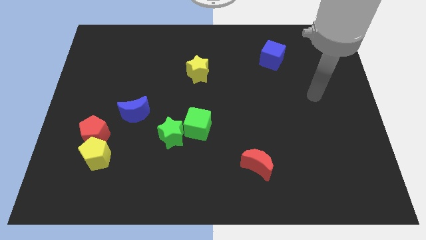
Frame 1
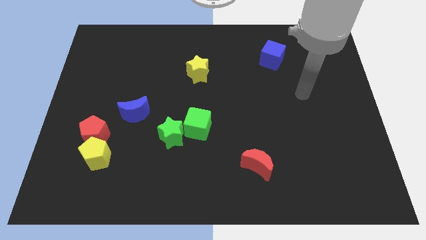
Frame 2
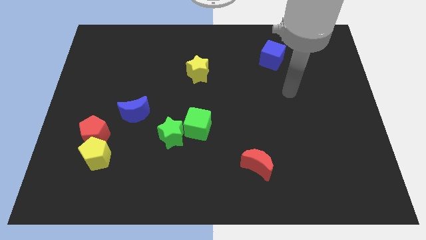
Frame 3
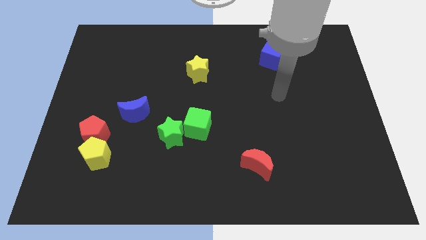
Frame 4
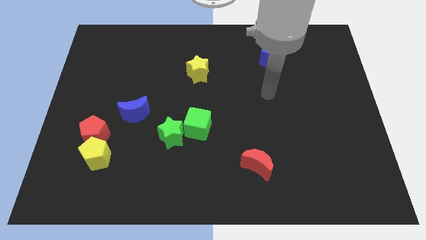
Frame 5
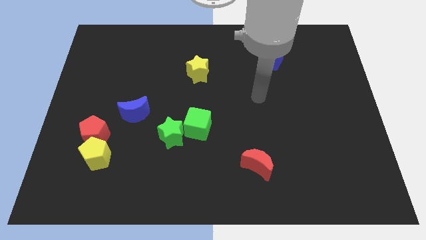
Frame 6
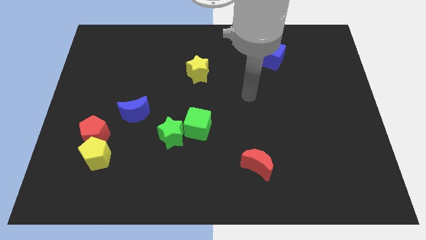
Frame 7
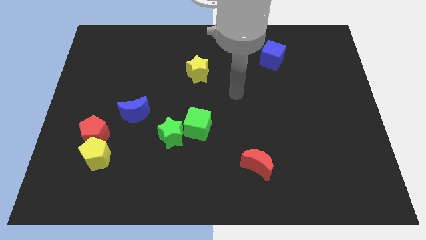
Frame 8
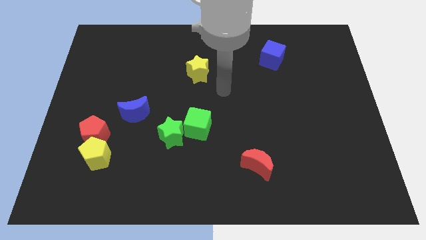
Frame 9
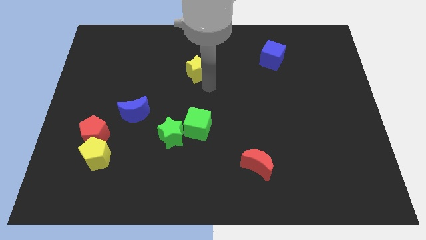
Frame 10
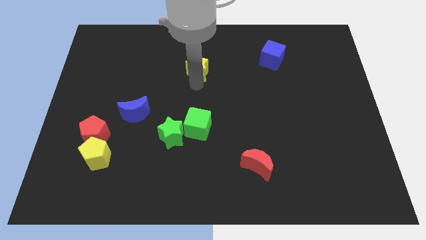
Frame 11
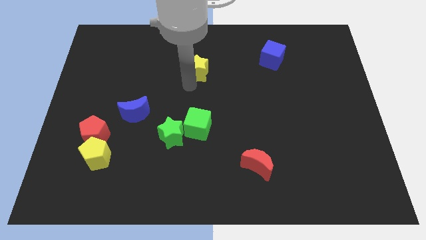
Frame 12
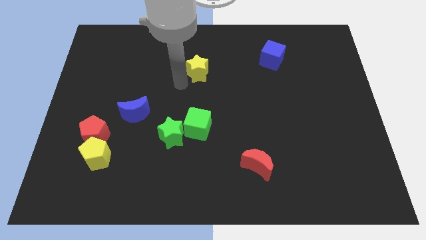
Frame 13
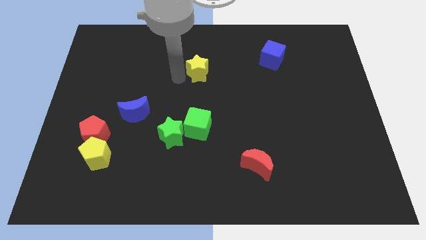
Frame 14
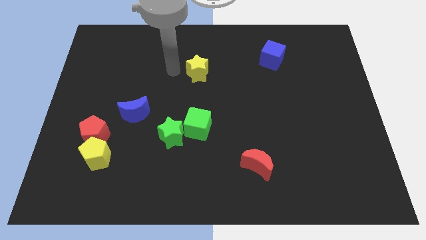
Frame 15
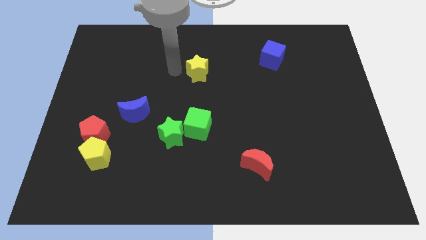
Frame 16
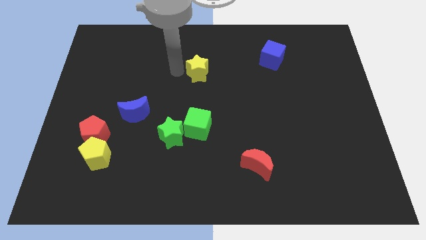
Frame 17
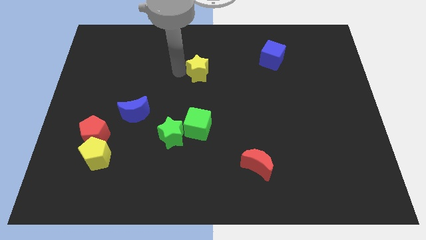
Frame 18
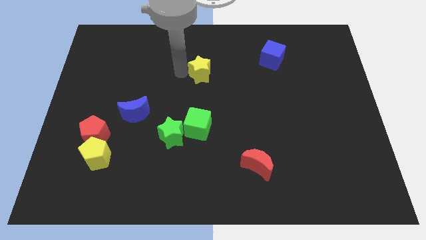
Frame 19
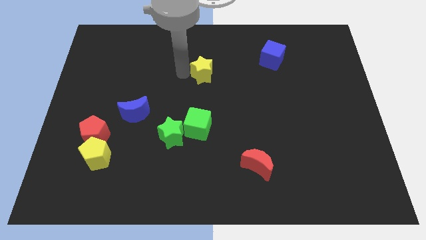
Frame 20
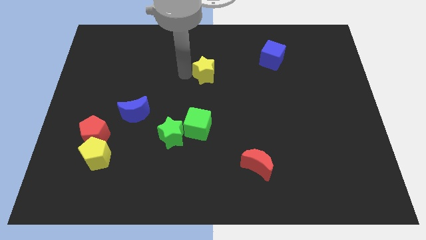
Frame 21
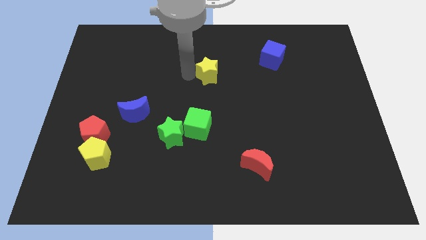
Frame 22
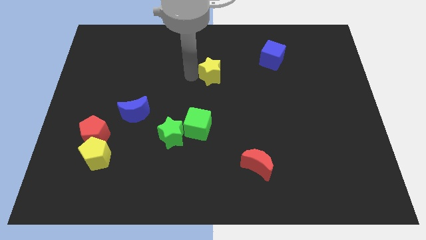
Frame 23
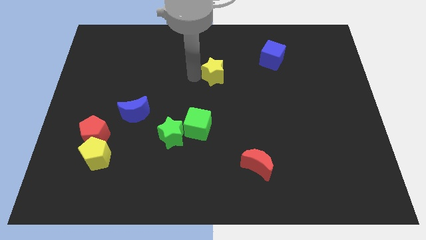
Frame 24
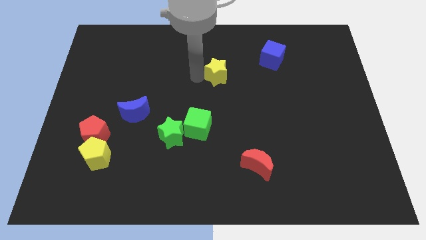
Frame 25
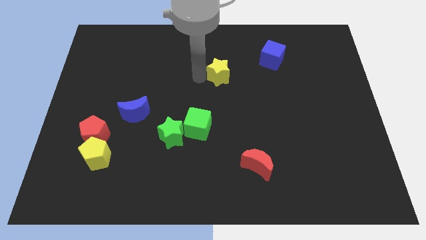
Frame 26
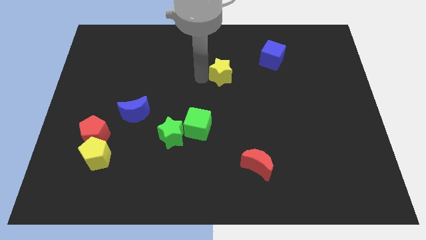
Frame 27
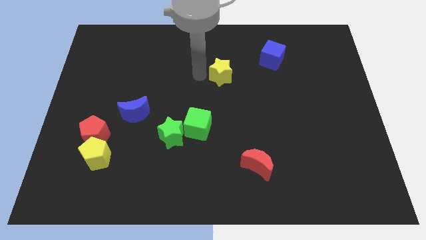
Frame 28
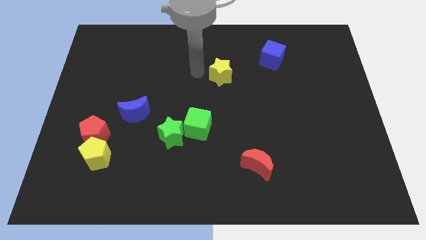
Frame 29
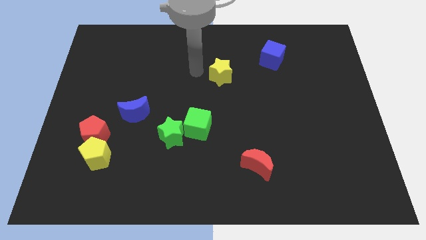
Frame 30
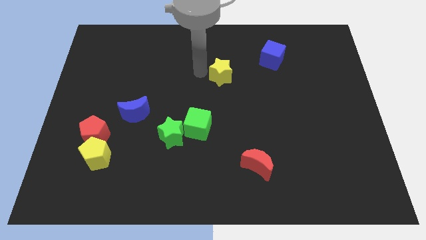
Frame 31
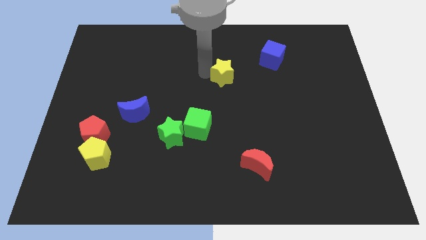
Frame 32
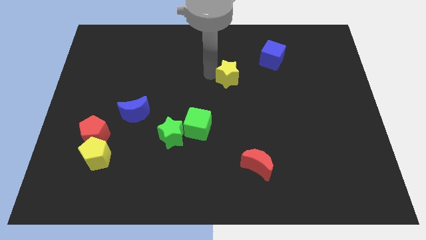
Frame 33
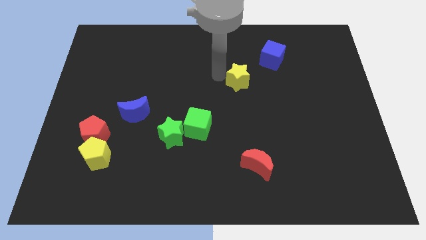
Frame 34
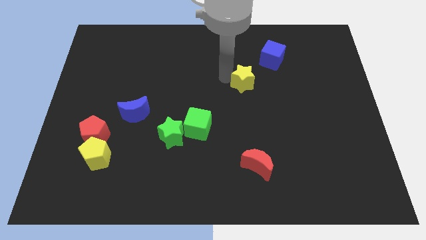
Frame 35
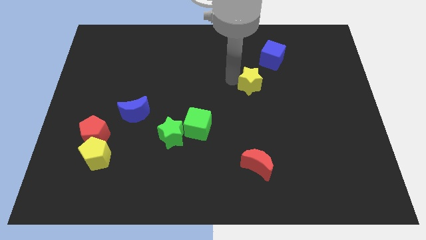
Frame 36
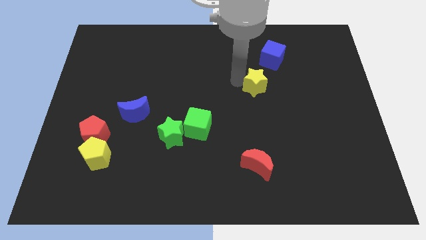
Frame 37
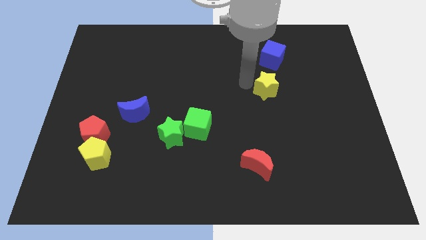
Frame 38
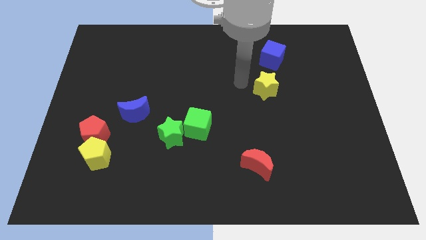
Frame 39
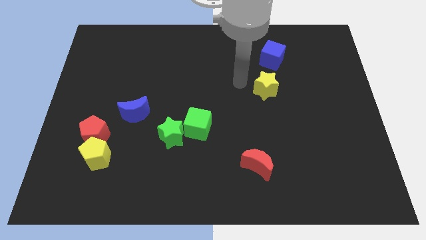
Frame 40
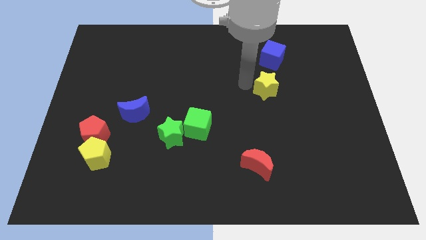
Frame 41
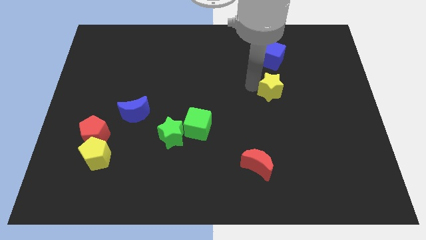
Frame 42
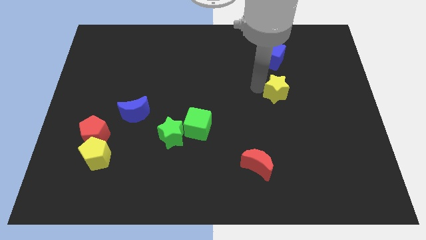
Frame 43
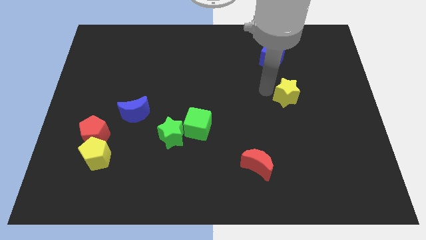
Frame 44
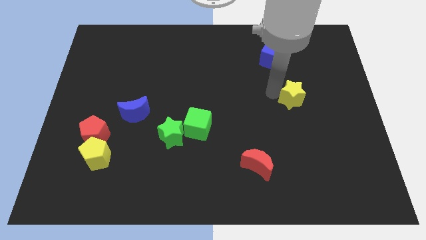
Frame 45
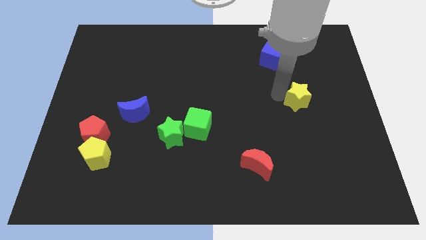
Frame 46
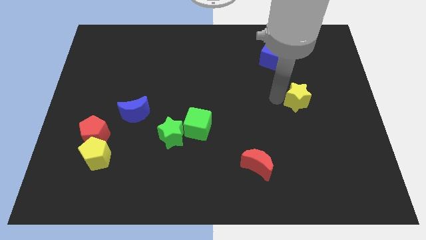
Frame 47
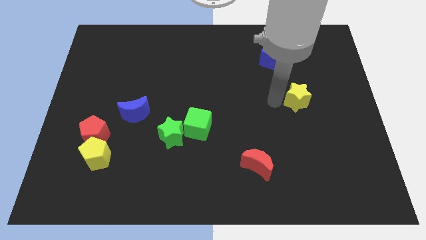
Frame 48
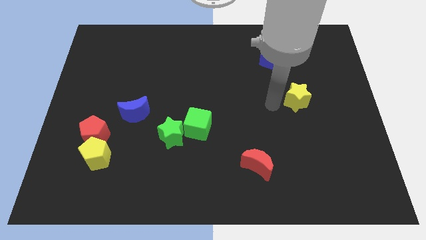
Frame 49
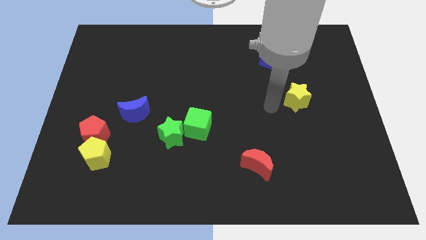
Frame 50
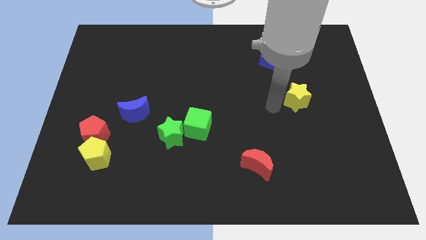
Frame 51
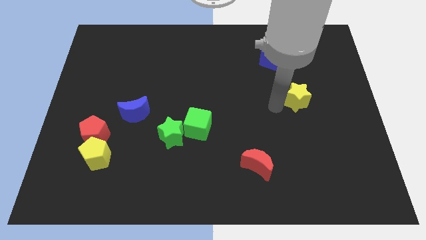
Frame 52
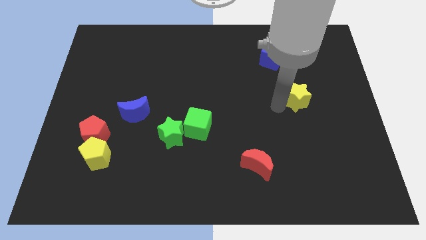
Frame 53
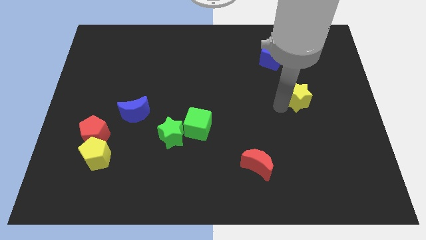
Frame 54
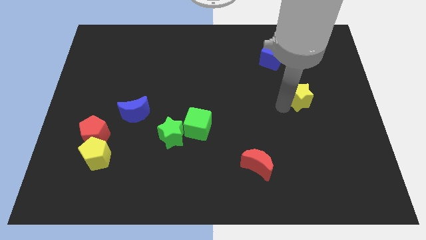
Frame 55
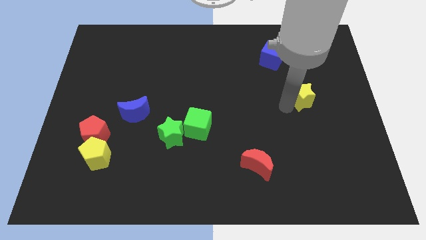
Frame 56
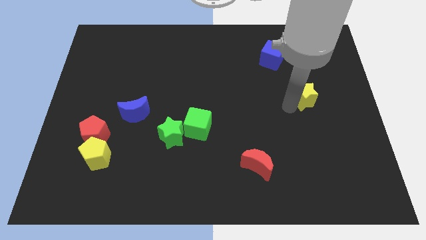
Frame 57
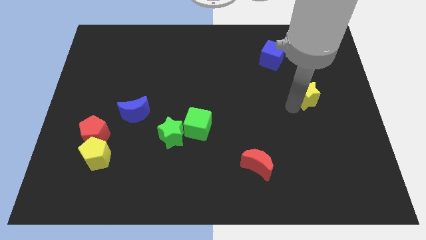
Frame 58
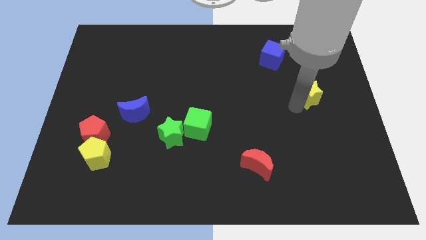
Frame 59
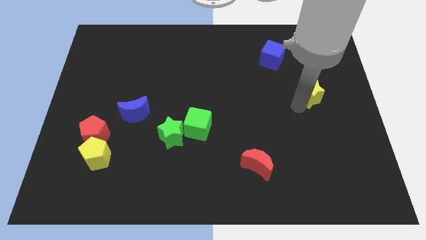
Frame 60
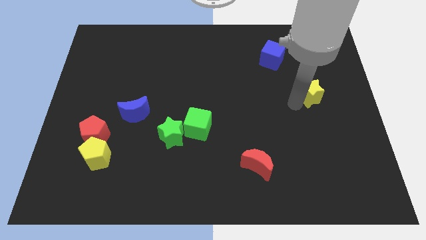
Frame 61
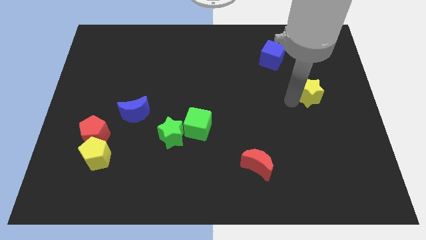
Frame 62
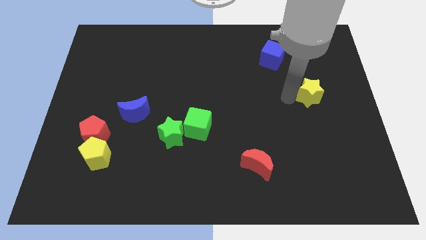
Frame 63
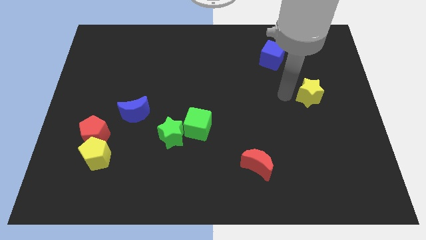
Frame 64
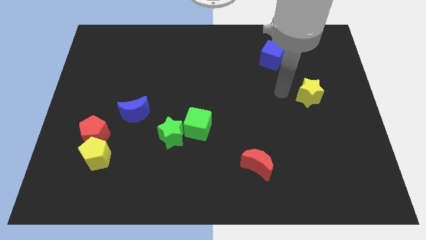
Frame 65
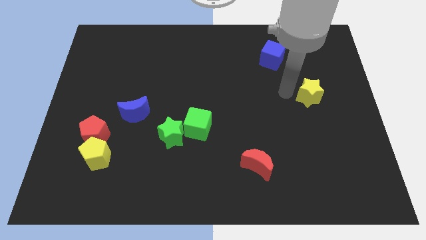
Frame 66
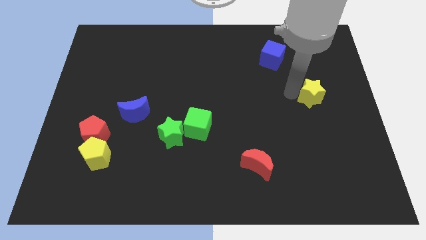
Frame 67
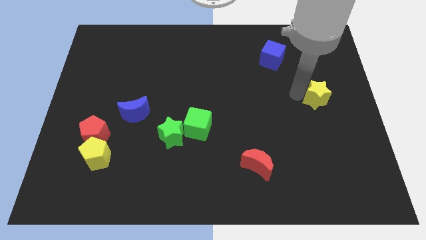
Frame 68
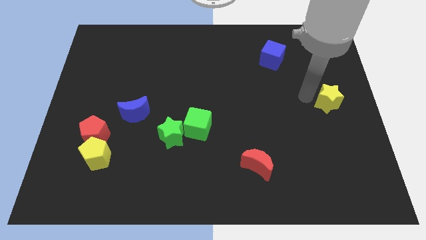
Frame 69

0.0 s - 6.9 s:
move the yellow star to the center right
